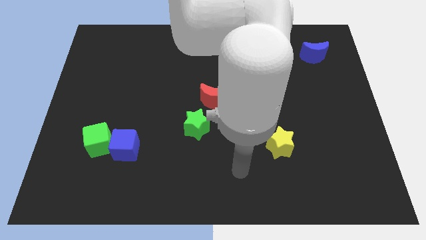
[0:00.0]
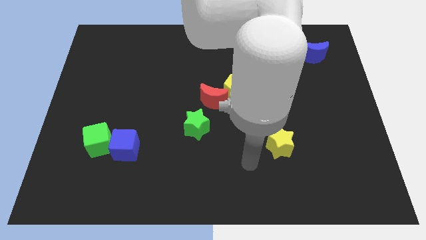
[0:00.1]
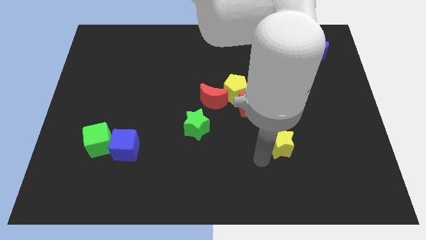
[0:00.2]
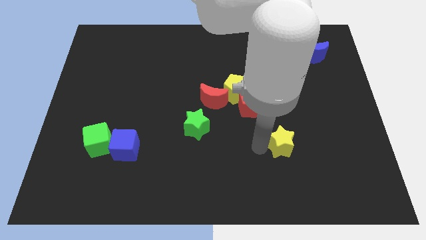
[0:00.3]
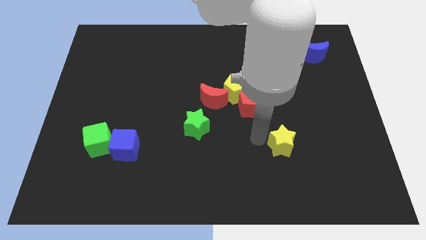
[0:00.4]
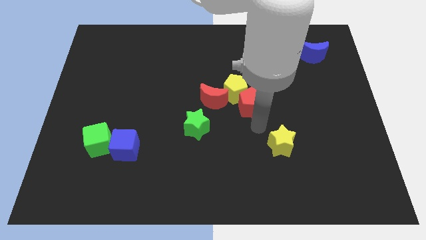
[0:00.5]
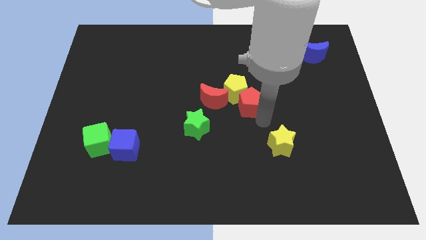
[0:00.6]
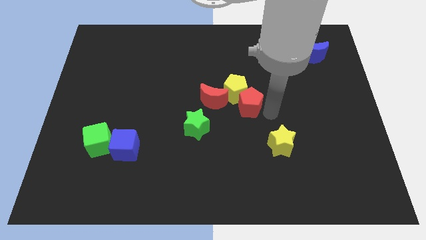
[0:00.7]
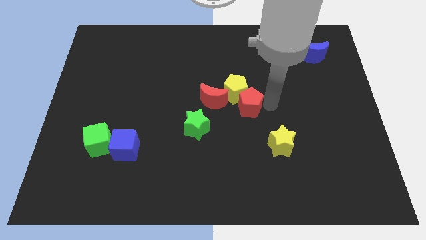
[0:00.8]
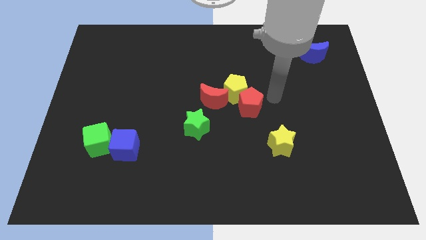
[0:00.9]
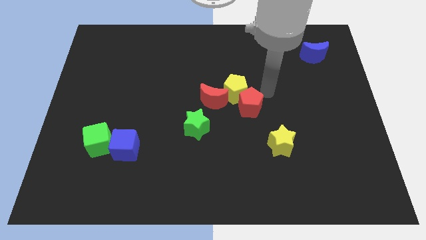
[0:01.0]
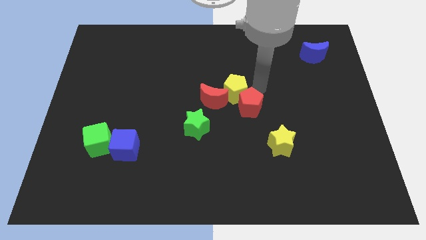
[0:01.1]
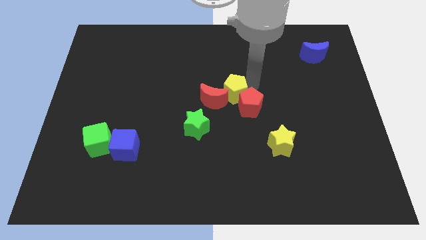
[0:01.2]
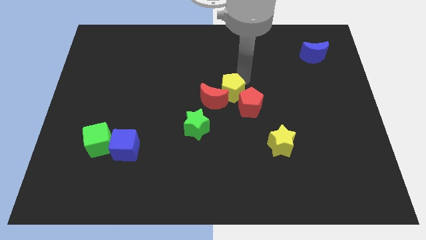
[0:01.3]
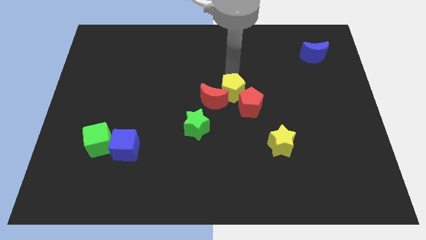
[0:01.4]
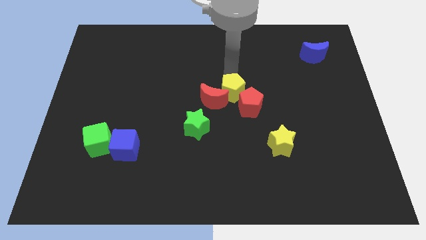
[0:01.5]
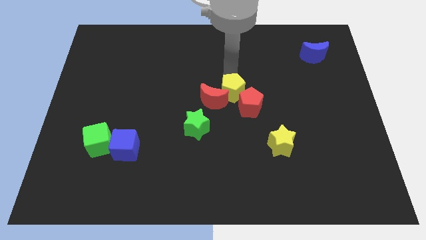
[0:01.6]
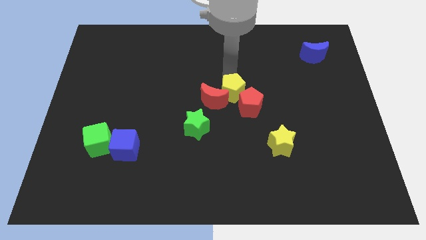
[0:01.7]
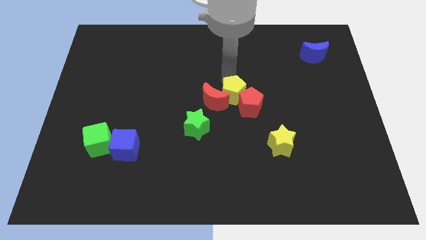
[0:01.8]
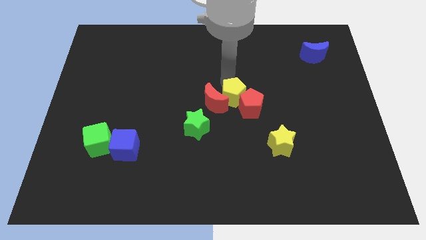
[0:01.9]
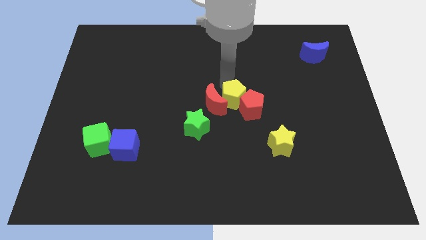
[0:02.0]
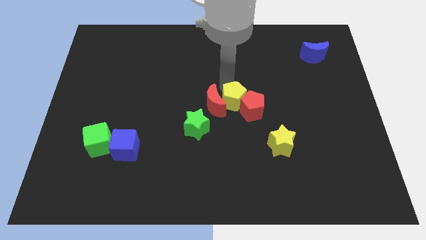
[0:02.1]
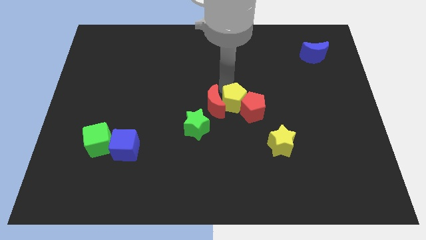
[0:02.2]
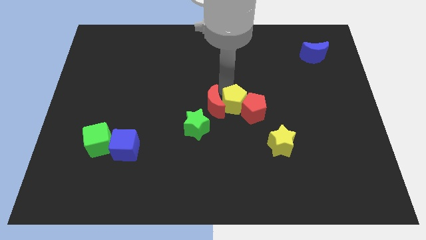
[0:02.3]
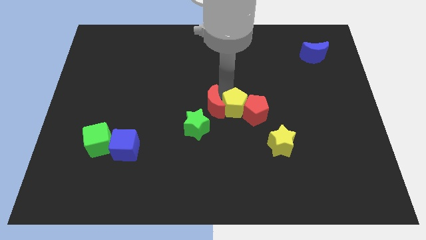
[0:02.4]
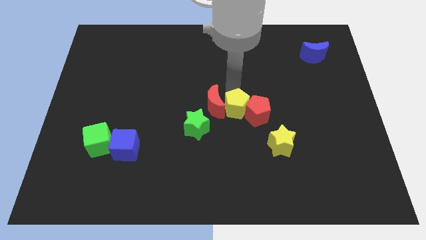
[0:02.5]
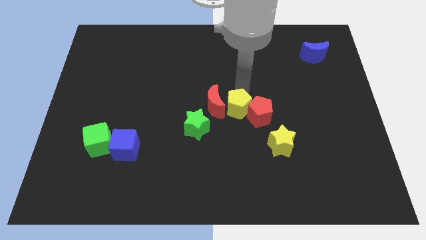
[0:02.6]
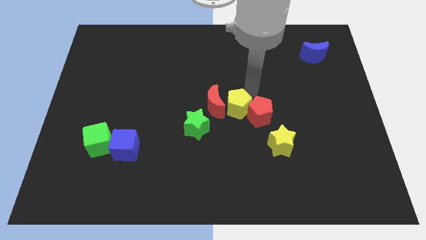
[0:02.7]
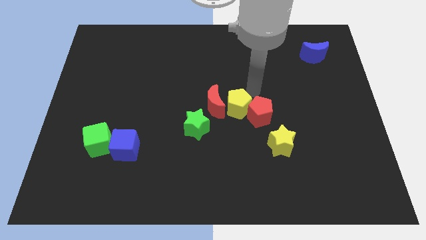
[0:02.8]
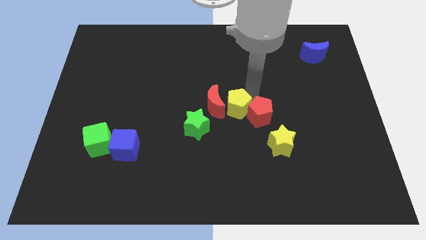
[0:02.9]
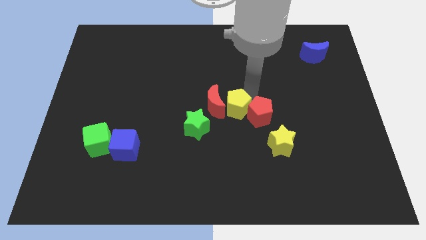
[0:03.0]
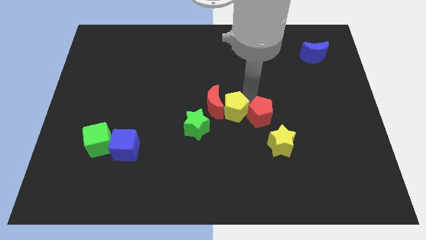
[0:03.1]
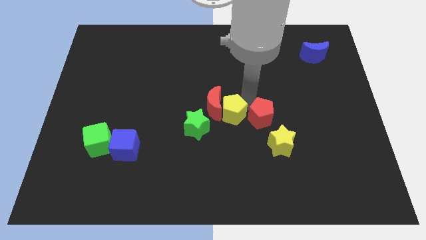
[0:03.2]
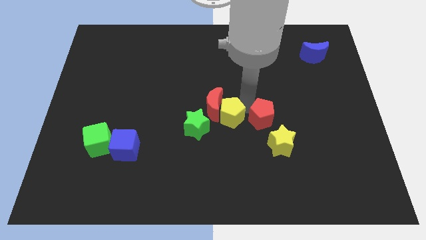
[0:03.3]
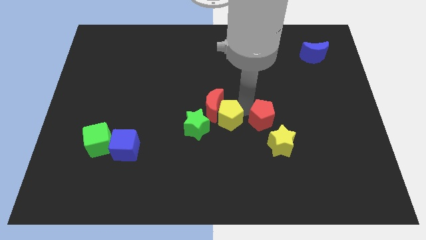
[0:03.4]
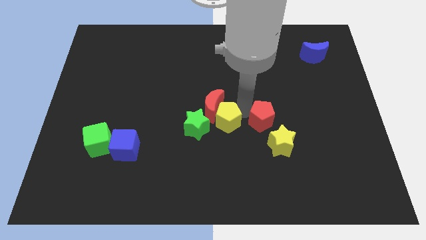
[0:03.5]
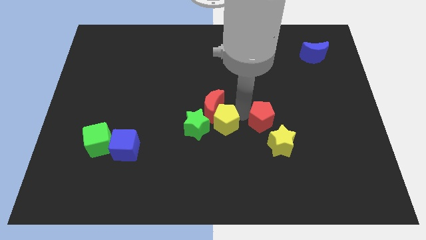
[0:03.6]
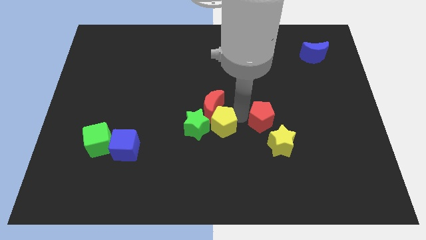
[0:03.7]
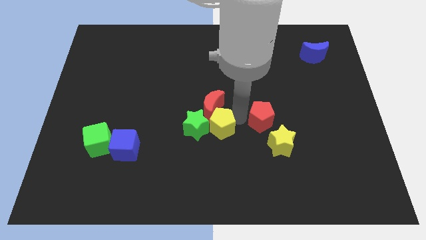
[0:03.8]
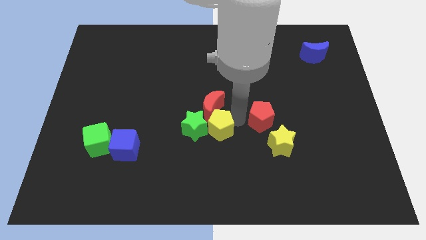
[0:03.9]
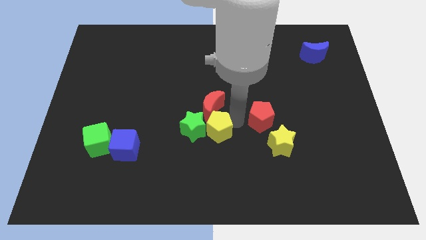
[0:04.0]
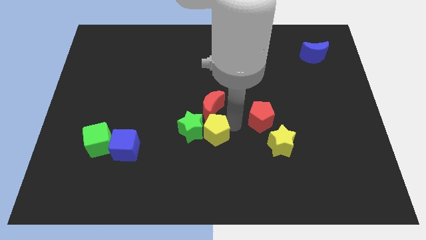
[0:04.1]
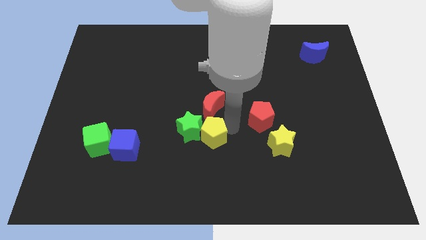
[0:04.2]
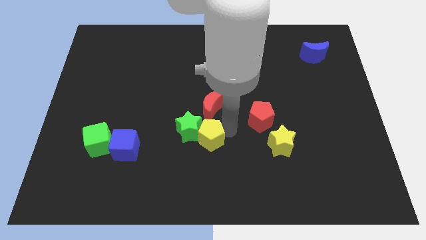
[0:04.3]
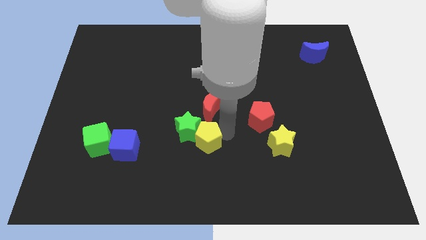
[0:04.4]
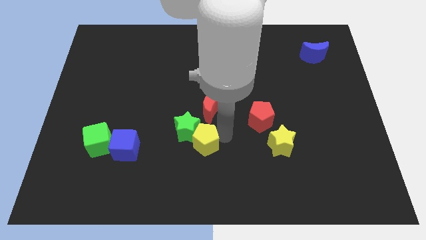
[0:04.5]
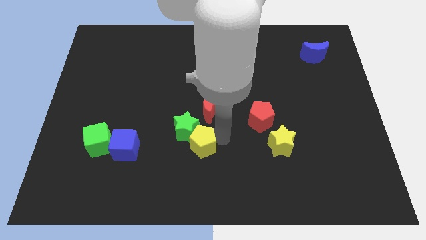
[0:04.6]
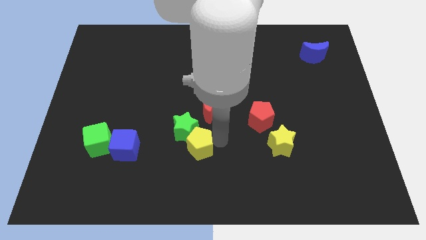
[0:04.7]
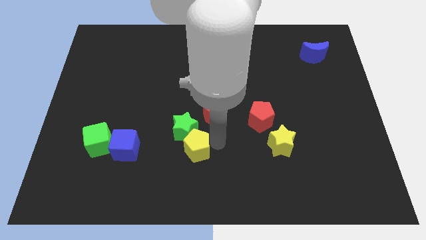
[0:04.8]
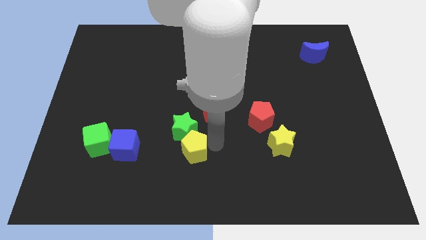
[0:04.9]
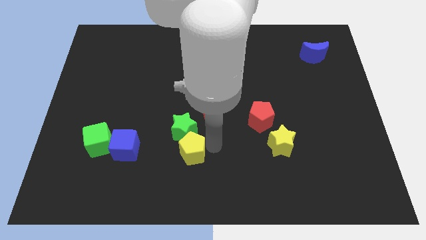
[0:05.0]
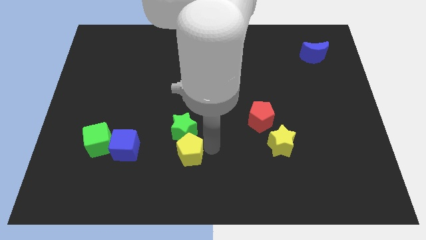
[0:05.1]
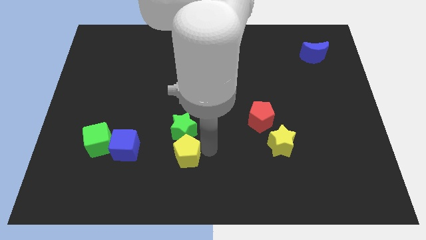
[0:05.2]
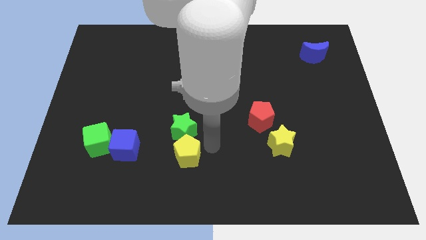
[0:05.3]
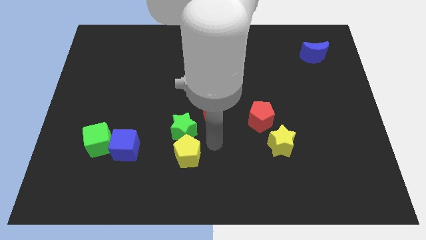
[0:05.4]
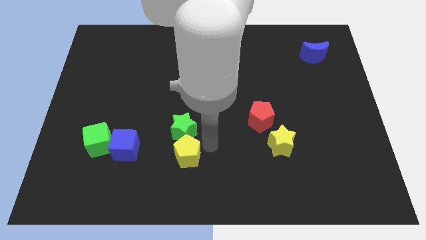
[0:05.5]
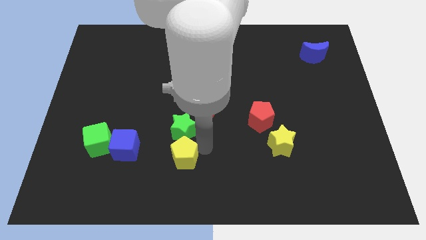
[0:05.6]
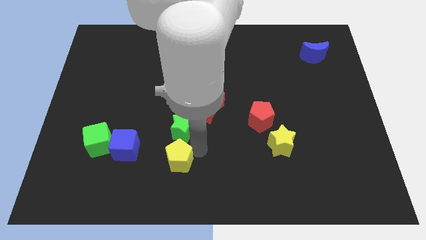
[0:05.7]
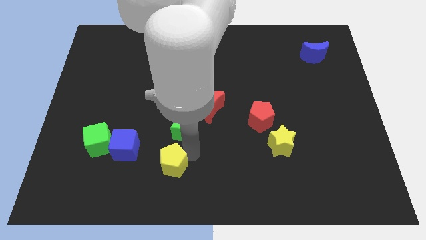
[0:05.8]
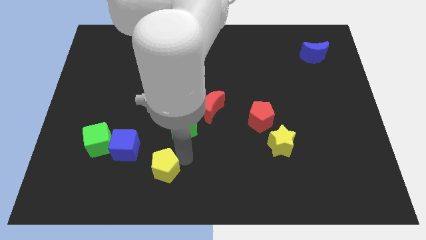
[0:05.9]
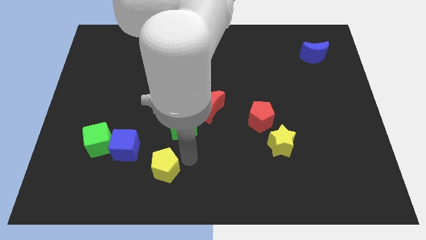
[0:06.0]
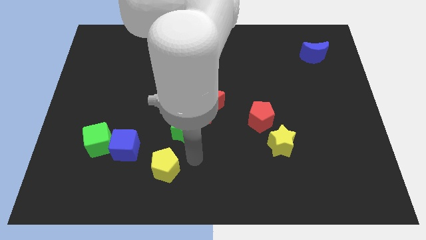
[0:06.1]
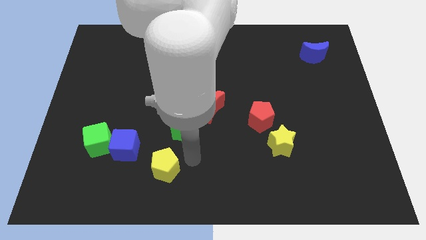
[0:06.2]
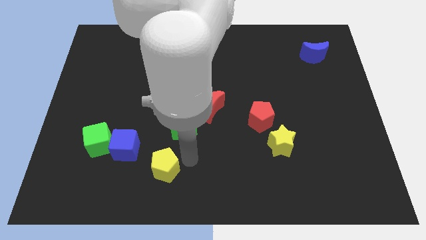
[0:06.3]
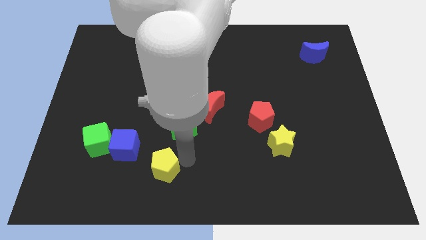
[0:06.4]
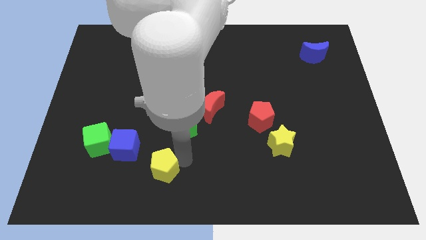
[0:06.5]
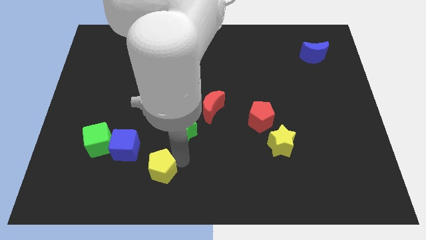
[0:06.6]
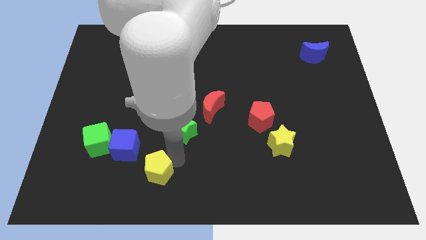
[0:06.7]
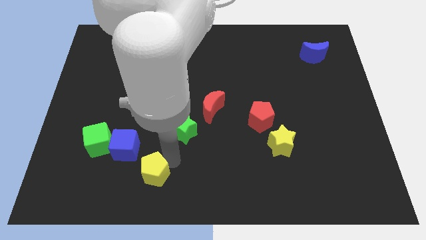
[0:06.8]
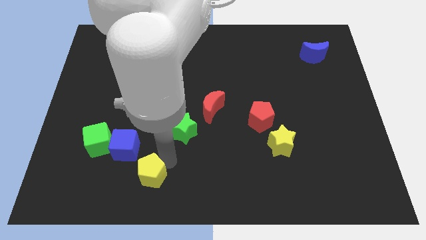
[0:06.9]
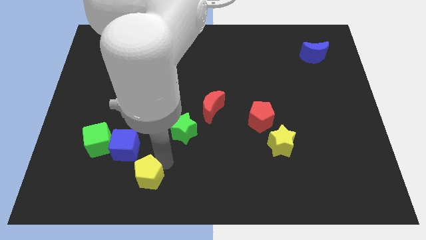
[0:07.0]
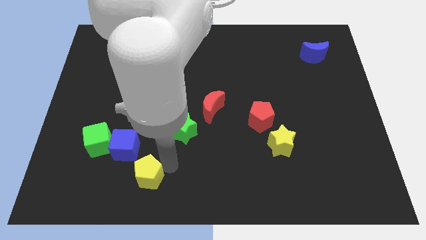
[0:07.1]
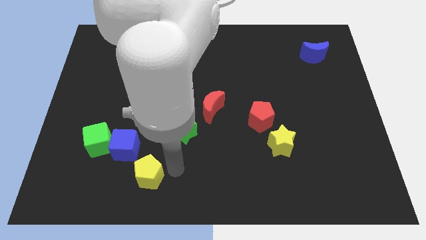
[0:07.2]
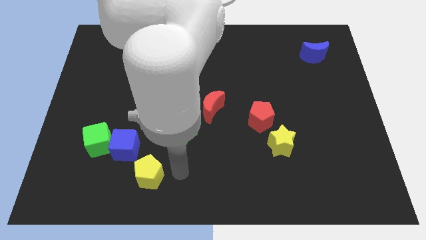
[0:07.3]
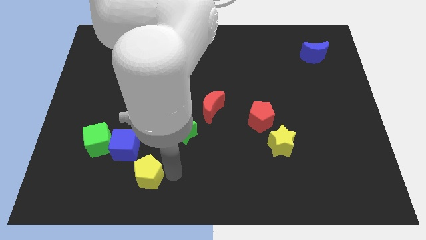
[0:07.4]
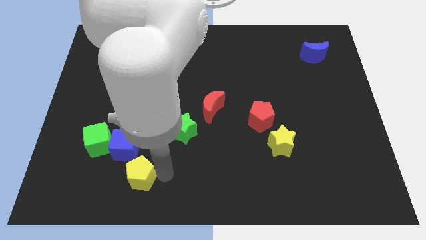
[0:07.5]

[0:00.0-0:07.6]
move the yellow pentagon to the bottom right side of the green cube
